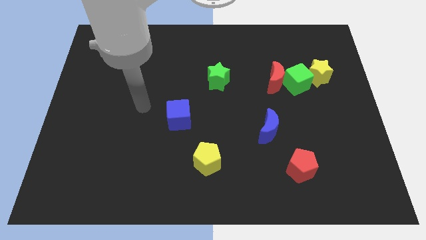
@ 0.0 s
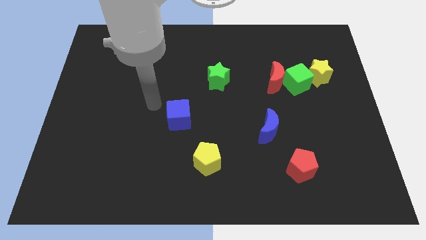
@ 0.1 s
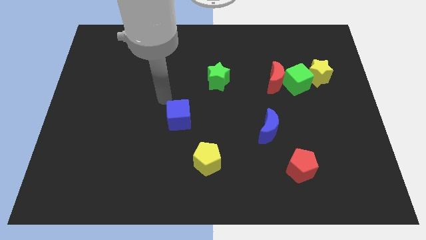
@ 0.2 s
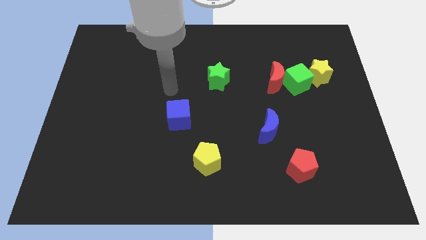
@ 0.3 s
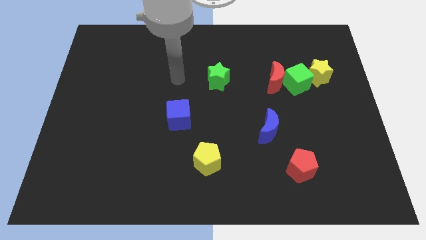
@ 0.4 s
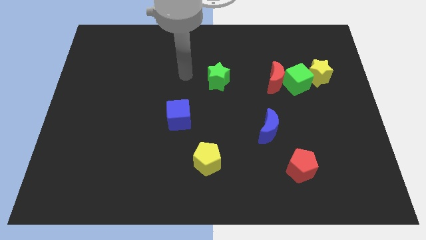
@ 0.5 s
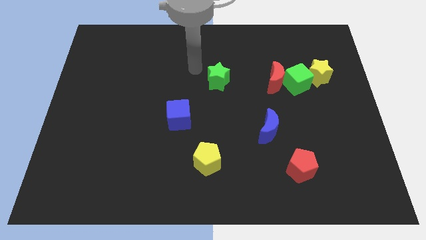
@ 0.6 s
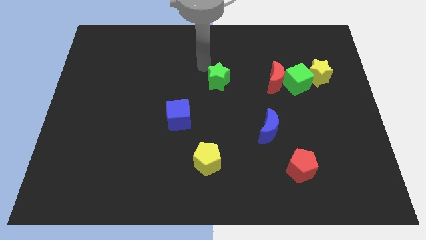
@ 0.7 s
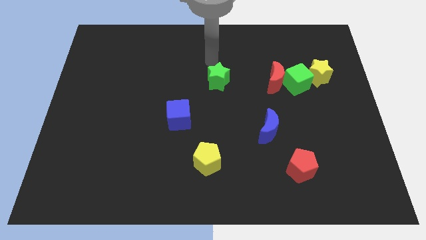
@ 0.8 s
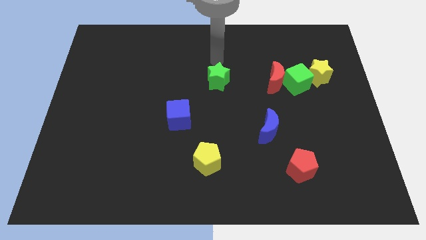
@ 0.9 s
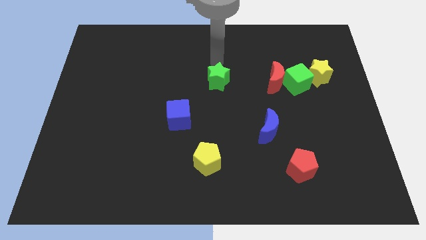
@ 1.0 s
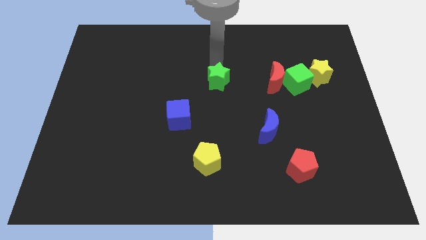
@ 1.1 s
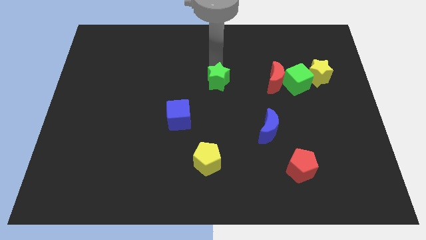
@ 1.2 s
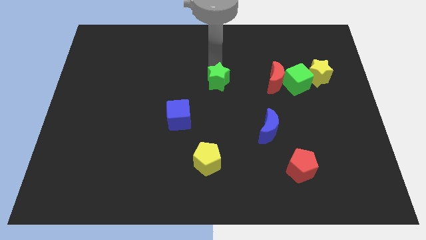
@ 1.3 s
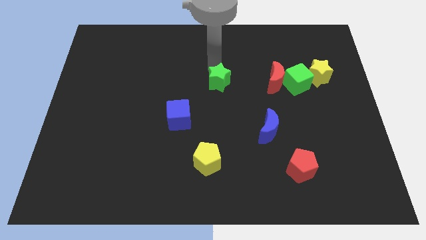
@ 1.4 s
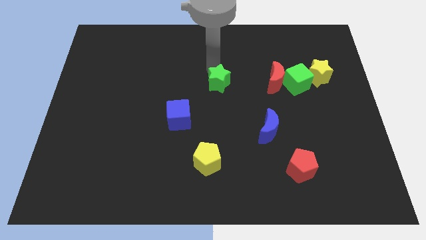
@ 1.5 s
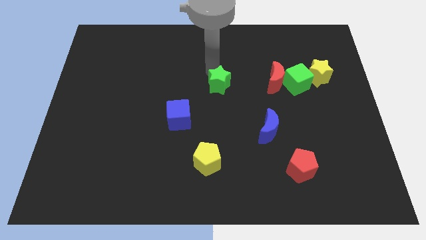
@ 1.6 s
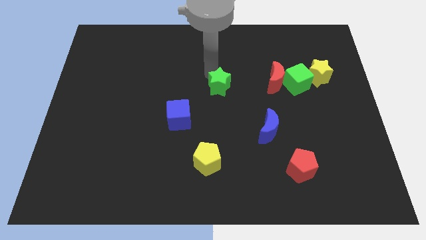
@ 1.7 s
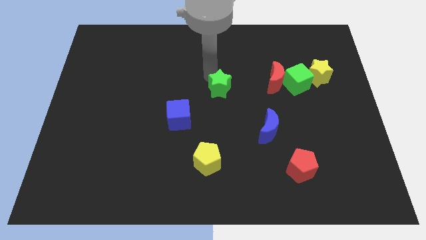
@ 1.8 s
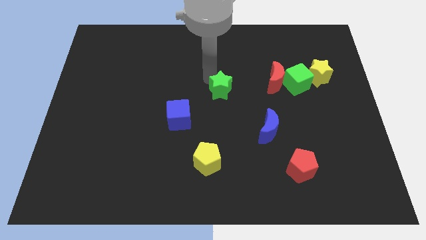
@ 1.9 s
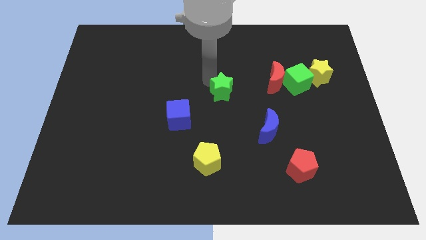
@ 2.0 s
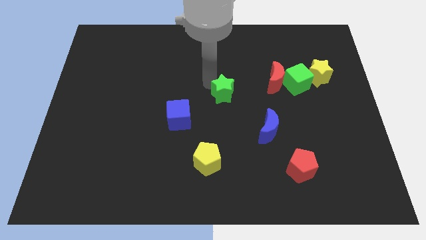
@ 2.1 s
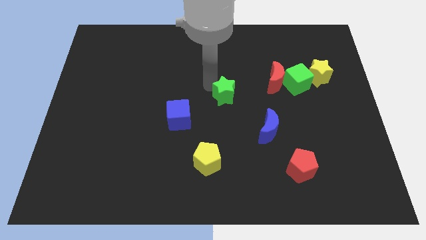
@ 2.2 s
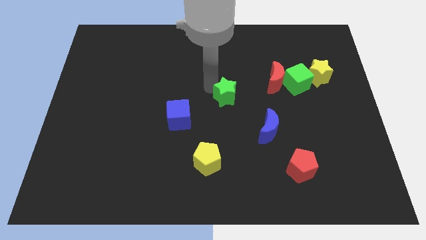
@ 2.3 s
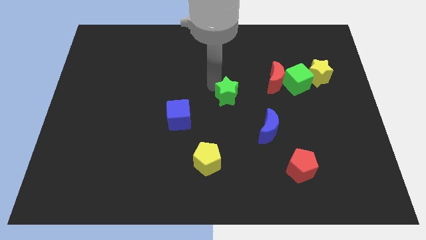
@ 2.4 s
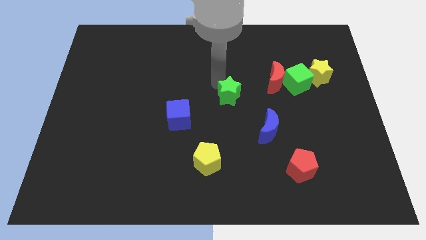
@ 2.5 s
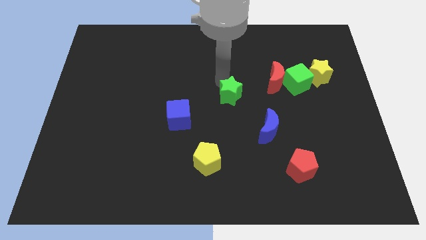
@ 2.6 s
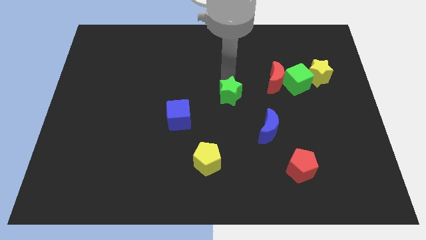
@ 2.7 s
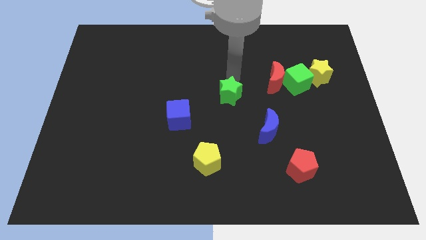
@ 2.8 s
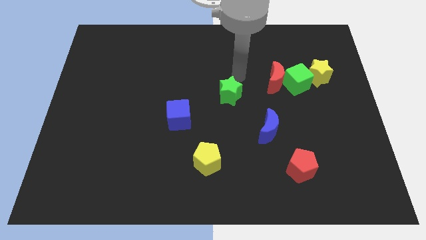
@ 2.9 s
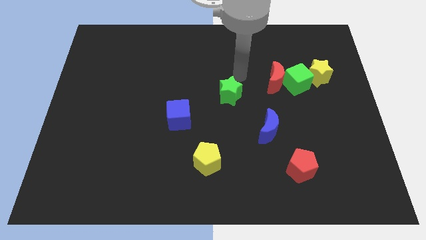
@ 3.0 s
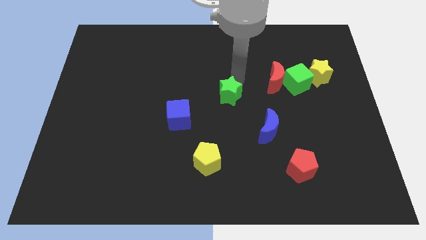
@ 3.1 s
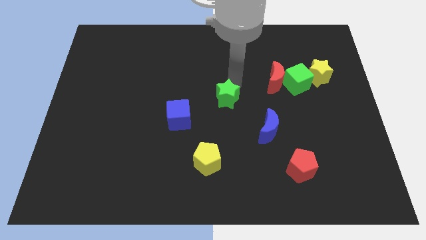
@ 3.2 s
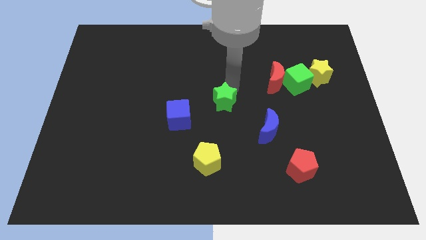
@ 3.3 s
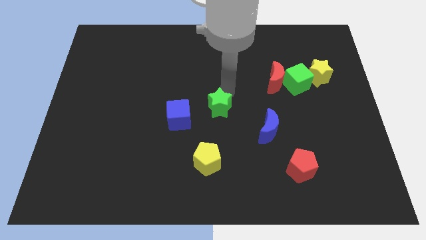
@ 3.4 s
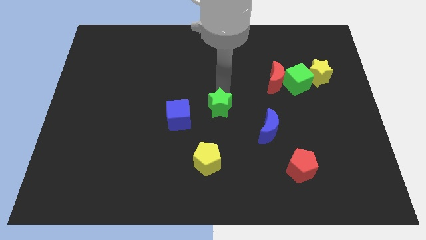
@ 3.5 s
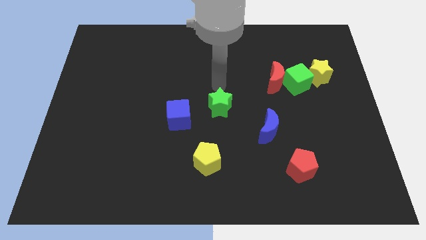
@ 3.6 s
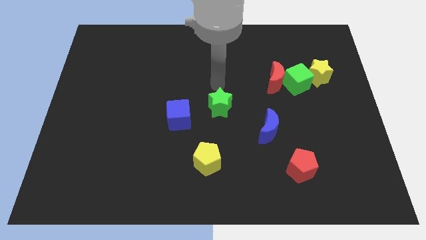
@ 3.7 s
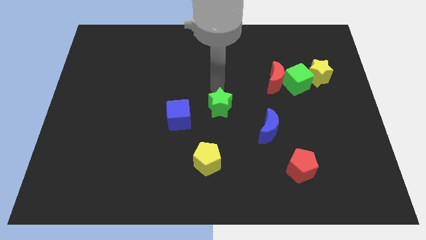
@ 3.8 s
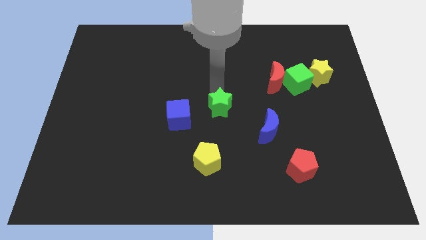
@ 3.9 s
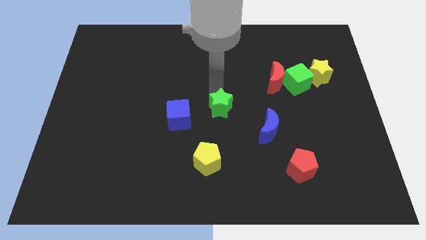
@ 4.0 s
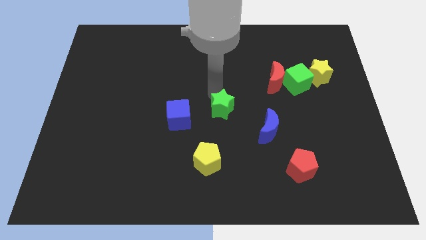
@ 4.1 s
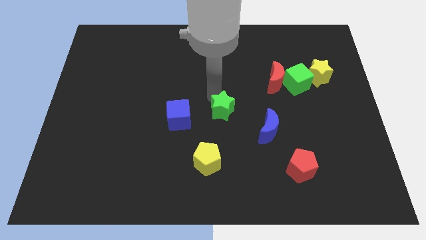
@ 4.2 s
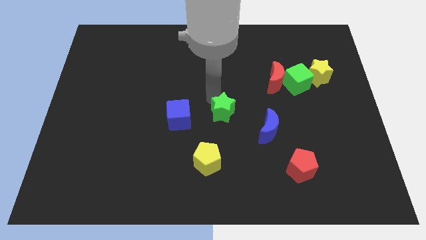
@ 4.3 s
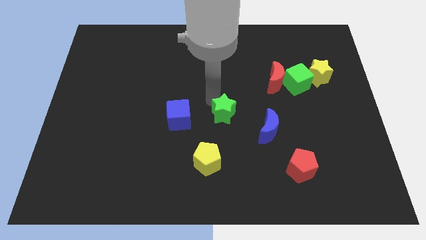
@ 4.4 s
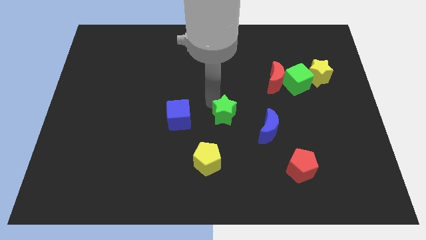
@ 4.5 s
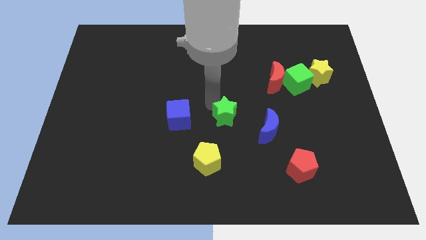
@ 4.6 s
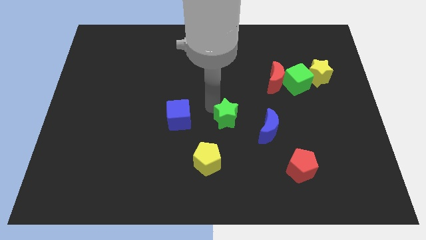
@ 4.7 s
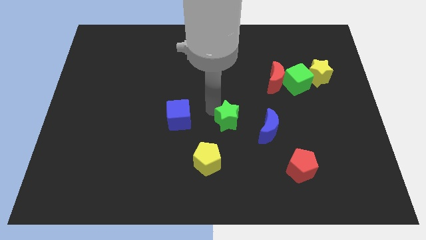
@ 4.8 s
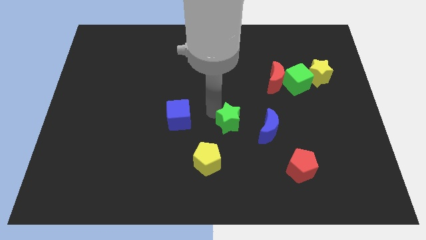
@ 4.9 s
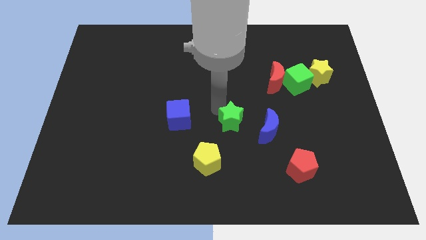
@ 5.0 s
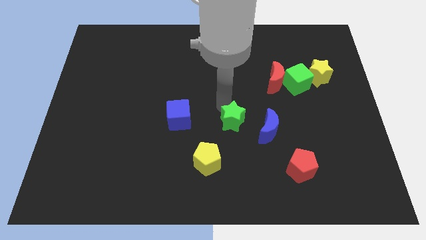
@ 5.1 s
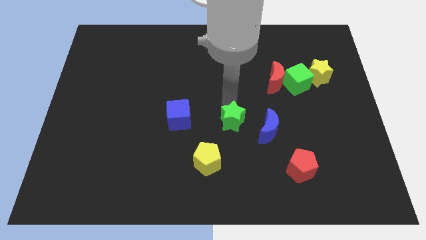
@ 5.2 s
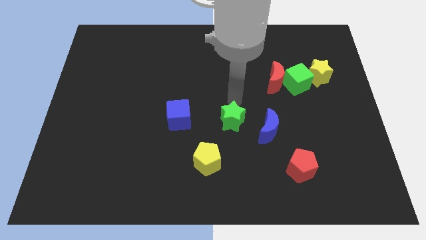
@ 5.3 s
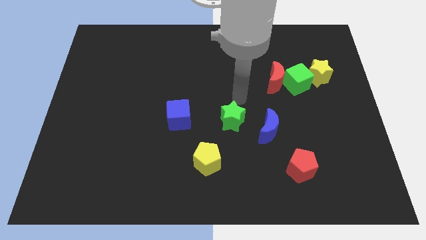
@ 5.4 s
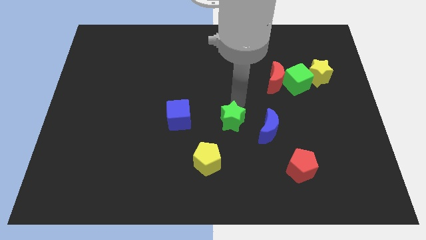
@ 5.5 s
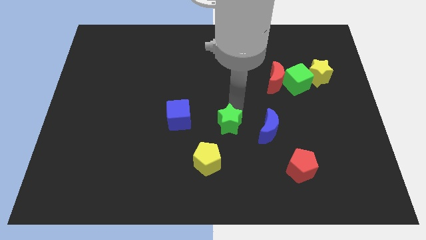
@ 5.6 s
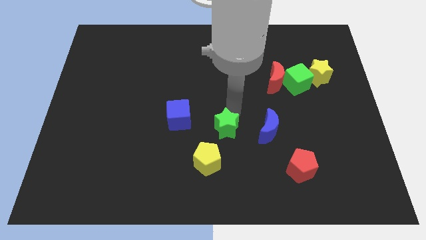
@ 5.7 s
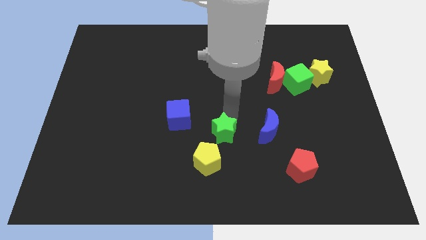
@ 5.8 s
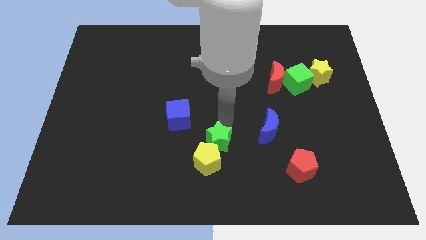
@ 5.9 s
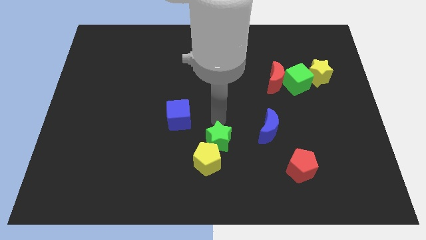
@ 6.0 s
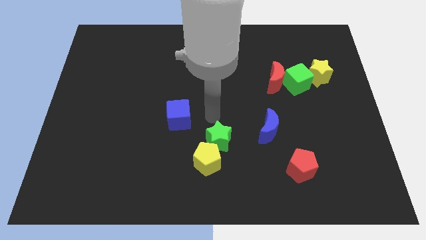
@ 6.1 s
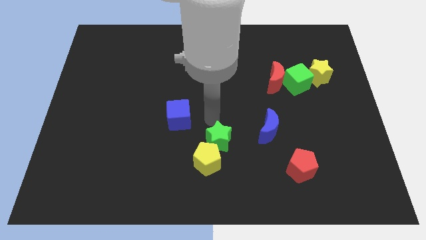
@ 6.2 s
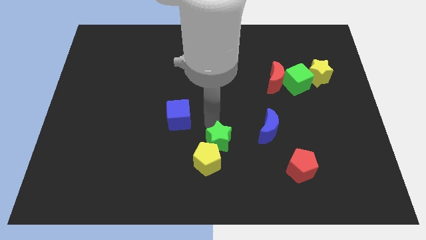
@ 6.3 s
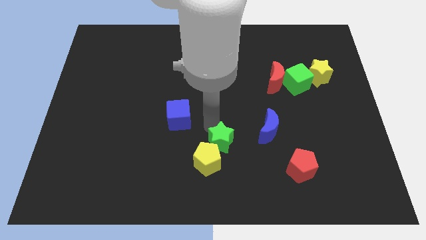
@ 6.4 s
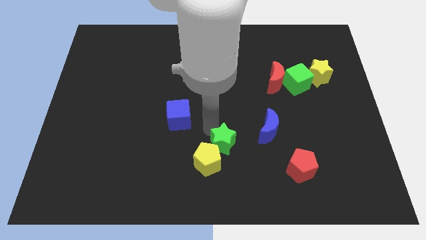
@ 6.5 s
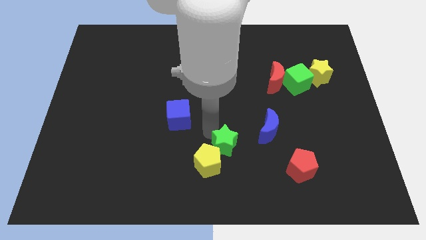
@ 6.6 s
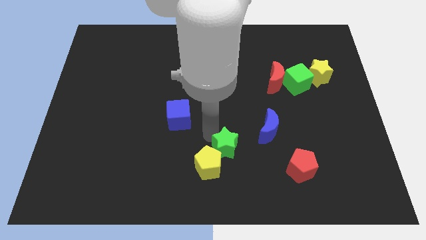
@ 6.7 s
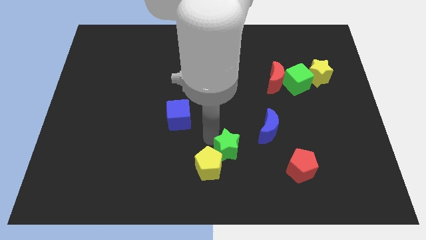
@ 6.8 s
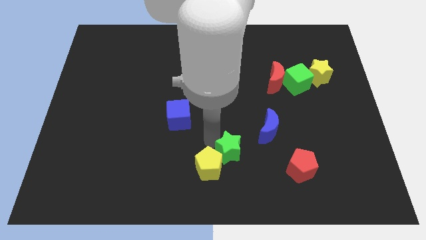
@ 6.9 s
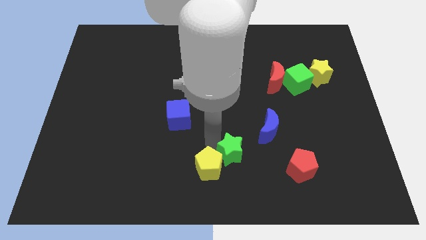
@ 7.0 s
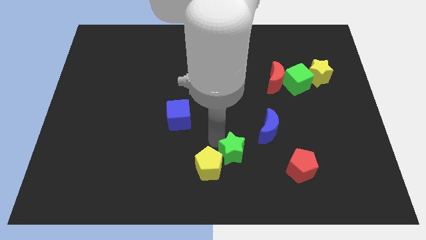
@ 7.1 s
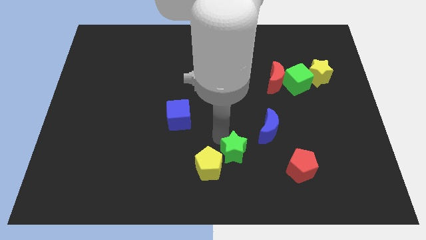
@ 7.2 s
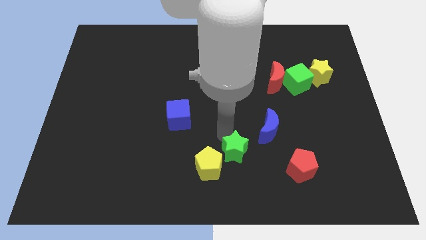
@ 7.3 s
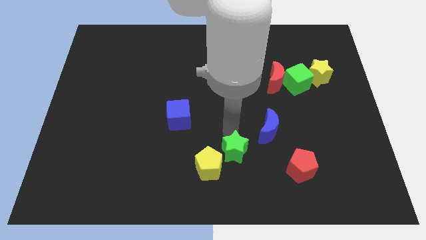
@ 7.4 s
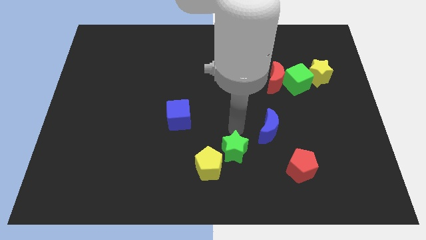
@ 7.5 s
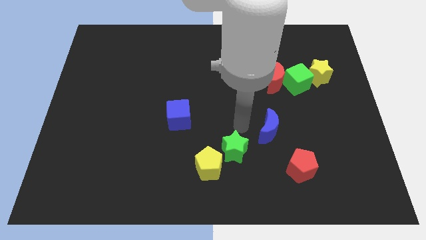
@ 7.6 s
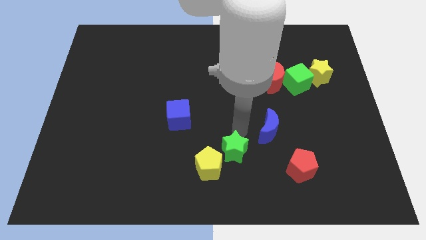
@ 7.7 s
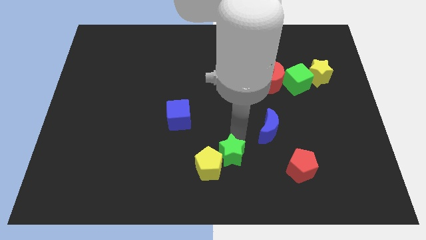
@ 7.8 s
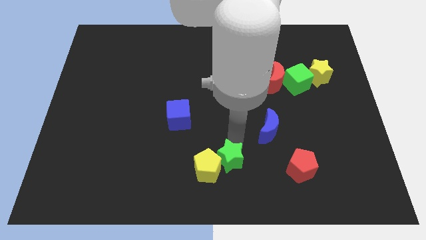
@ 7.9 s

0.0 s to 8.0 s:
move the green star to the bottom
